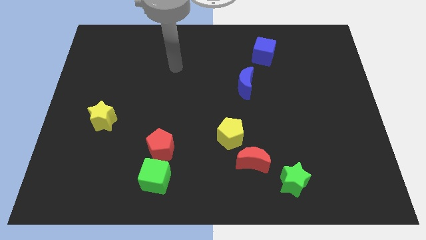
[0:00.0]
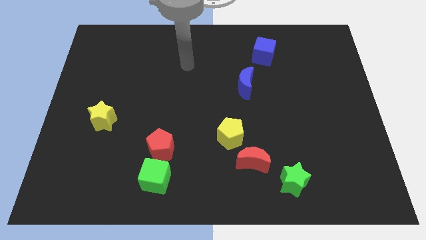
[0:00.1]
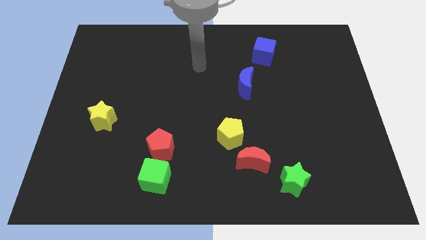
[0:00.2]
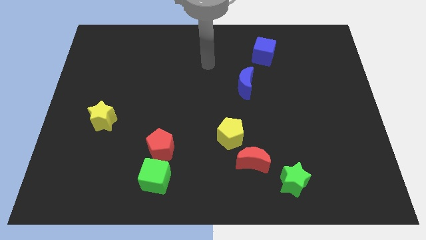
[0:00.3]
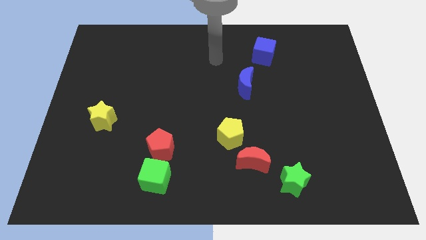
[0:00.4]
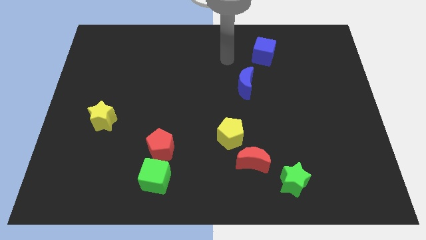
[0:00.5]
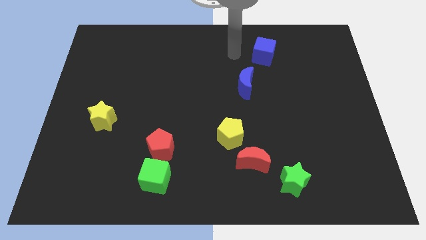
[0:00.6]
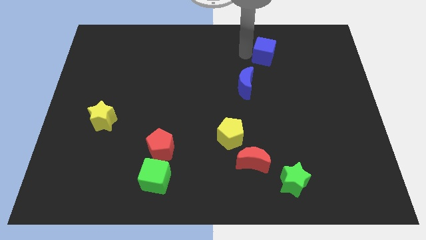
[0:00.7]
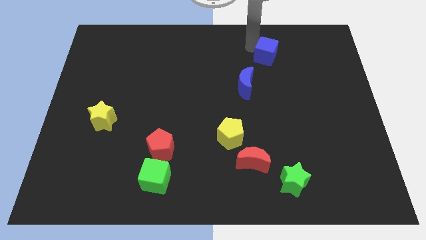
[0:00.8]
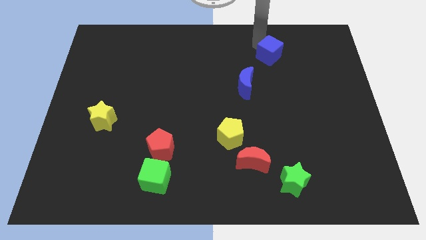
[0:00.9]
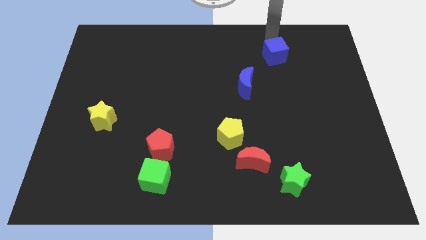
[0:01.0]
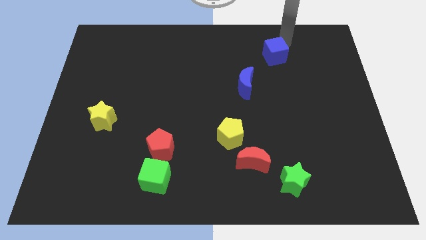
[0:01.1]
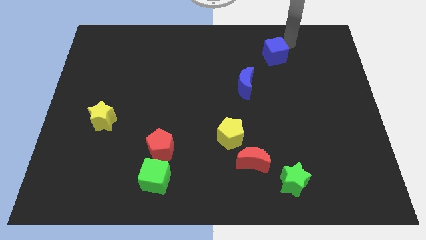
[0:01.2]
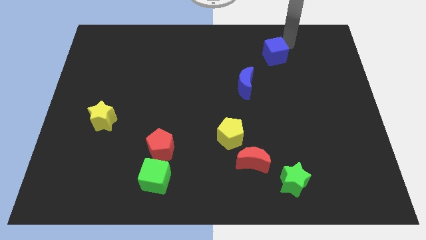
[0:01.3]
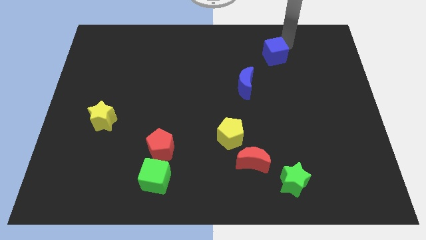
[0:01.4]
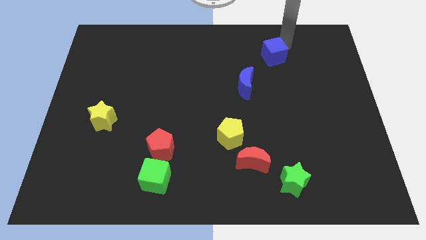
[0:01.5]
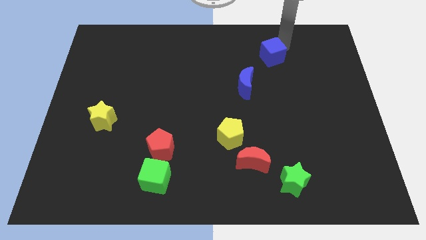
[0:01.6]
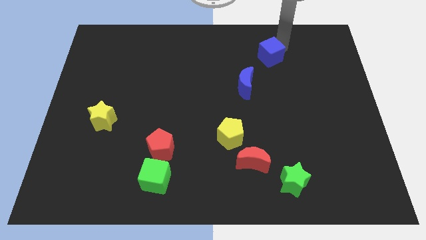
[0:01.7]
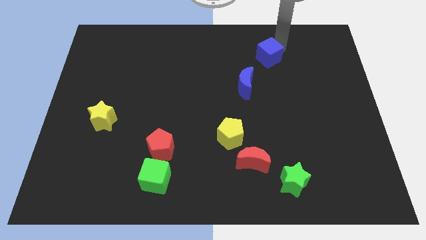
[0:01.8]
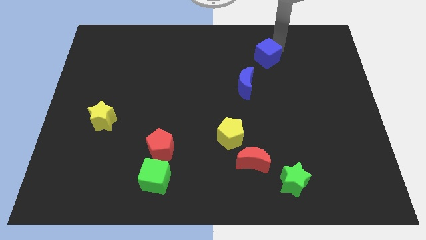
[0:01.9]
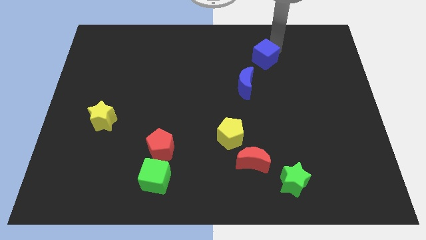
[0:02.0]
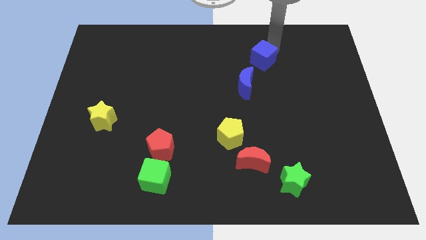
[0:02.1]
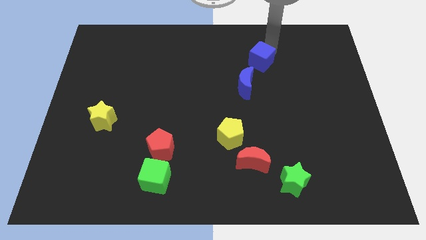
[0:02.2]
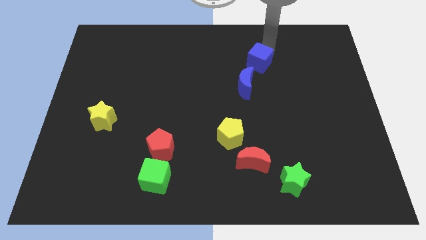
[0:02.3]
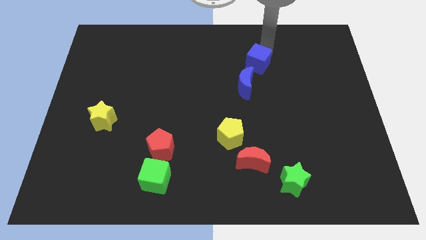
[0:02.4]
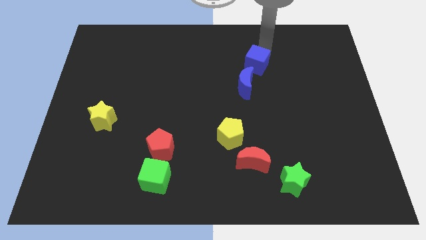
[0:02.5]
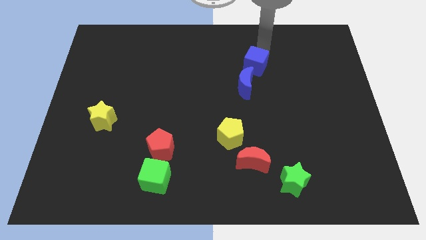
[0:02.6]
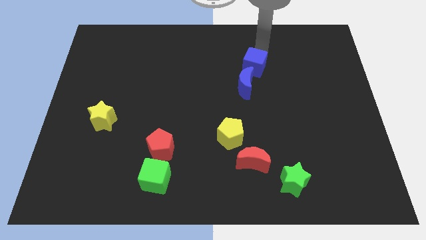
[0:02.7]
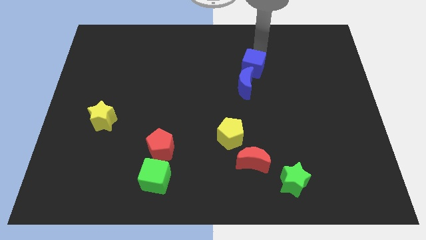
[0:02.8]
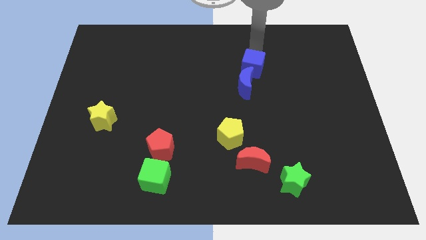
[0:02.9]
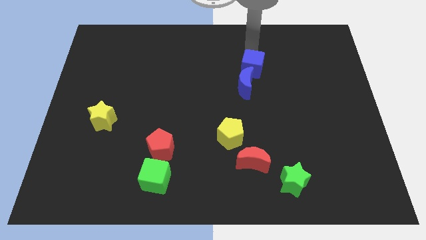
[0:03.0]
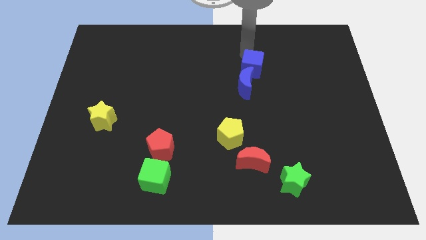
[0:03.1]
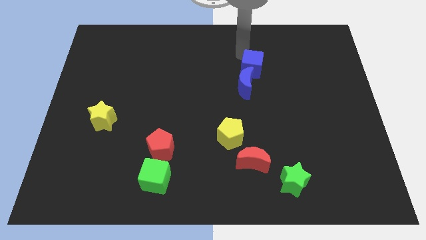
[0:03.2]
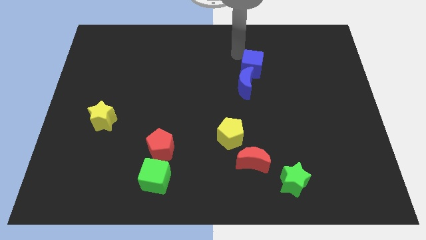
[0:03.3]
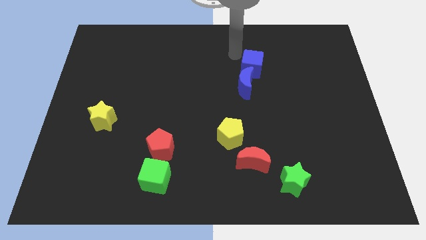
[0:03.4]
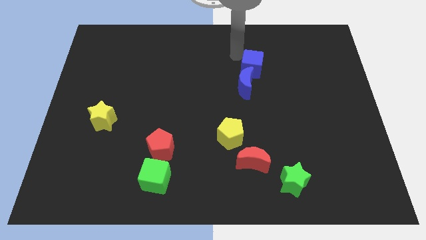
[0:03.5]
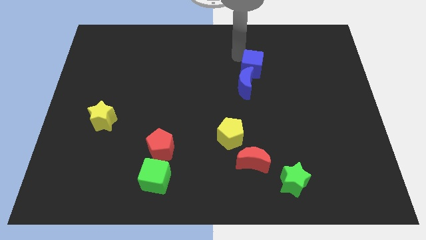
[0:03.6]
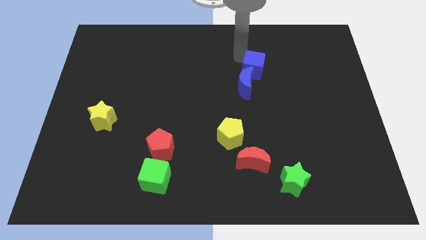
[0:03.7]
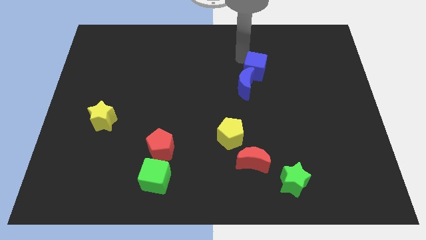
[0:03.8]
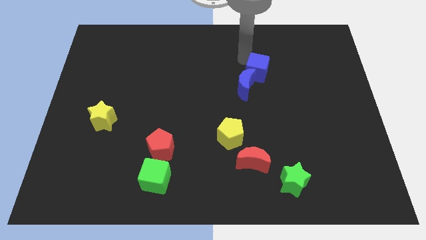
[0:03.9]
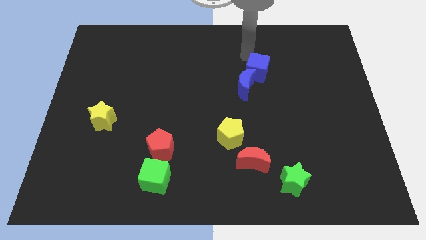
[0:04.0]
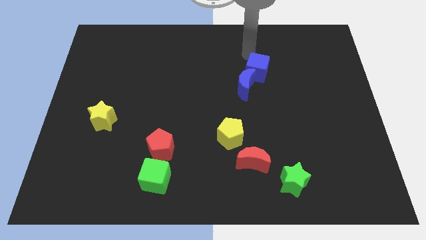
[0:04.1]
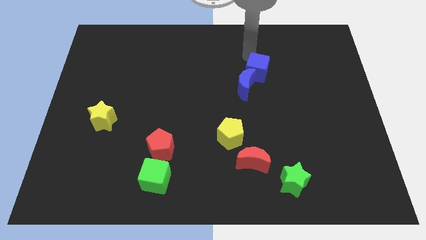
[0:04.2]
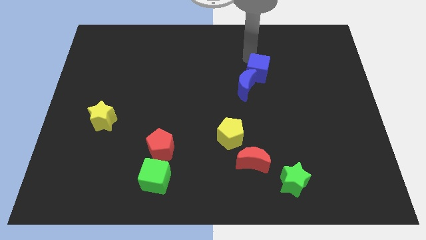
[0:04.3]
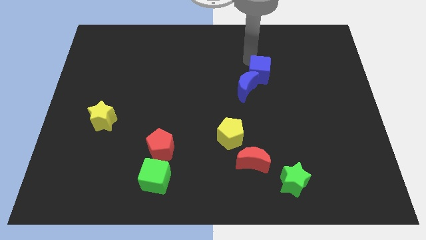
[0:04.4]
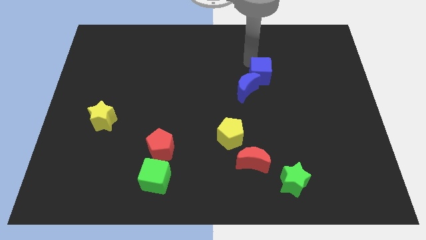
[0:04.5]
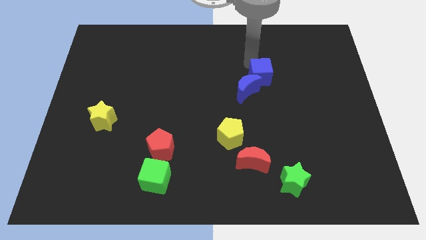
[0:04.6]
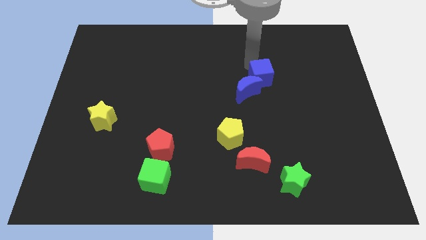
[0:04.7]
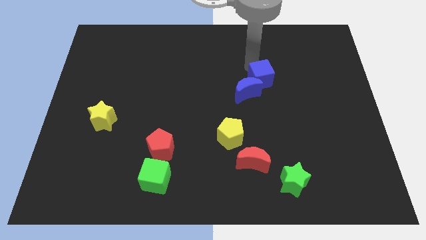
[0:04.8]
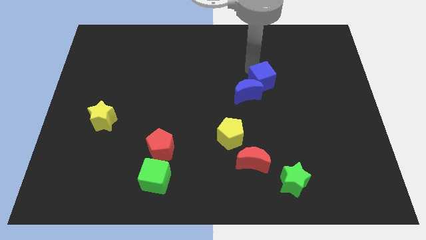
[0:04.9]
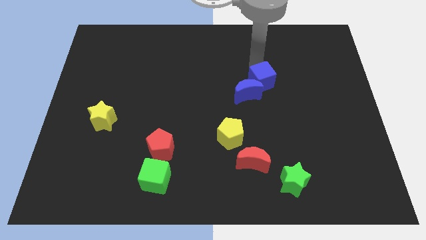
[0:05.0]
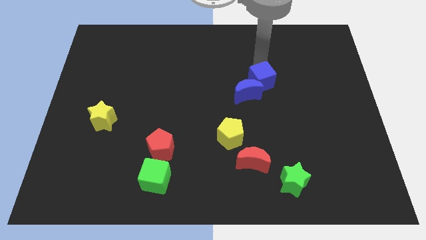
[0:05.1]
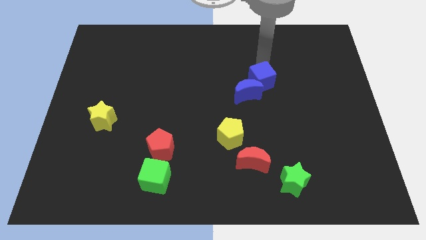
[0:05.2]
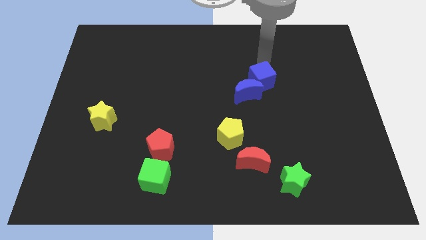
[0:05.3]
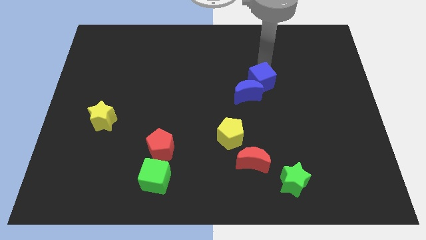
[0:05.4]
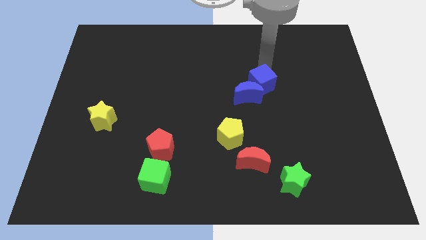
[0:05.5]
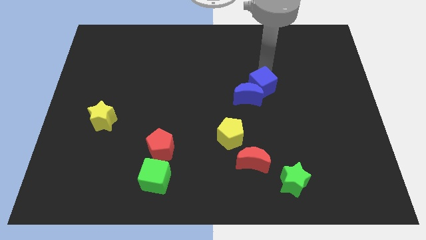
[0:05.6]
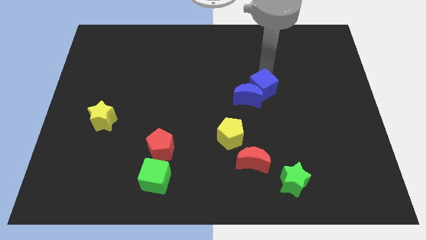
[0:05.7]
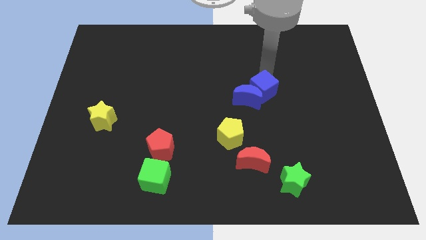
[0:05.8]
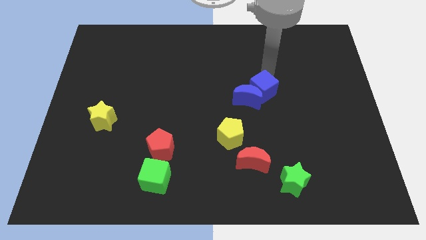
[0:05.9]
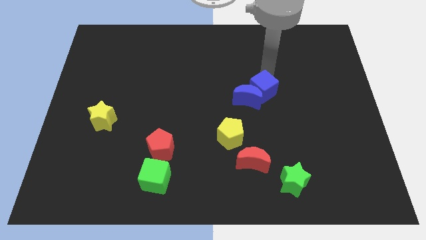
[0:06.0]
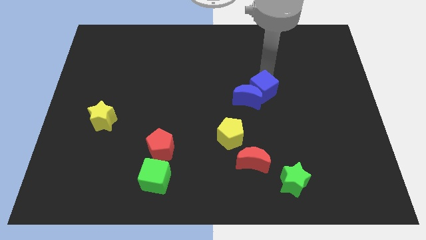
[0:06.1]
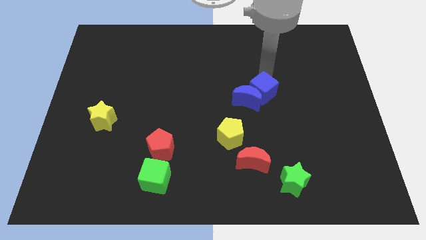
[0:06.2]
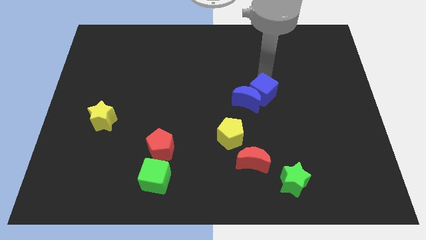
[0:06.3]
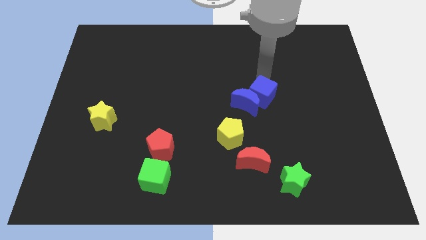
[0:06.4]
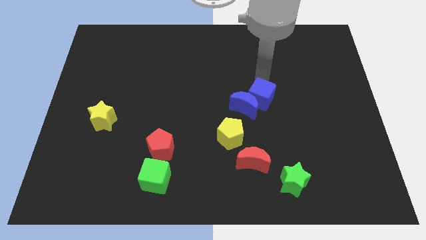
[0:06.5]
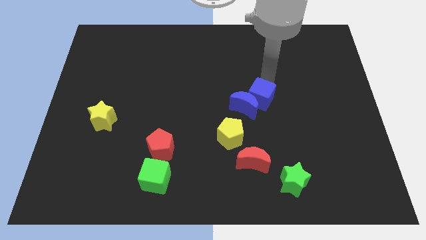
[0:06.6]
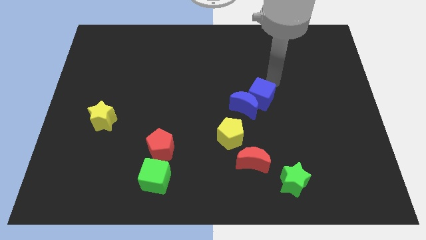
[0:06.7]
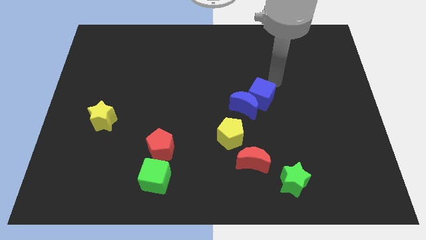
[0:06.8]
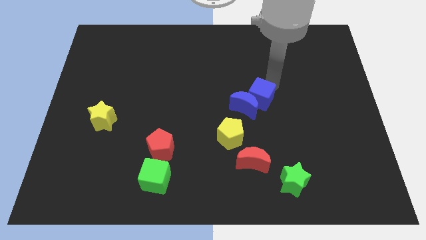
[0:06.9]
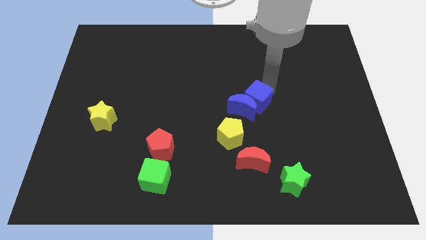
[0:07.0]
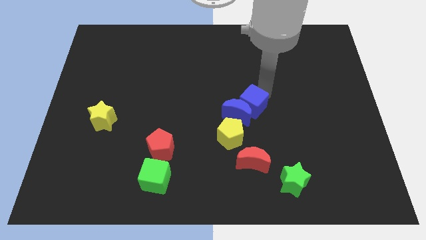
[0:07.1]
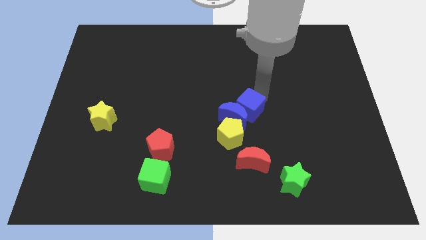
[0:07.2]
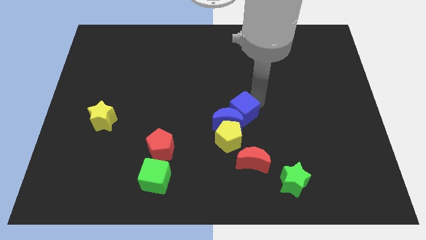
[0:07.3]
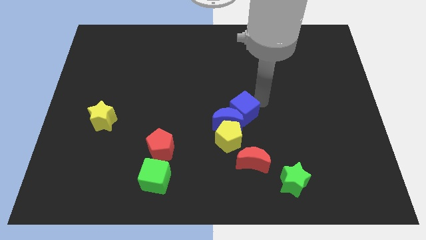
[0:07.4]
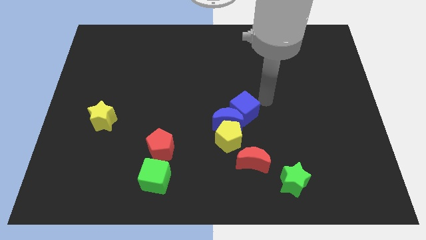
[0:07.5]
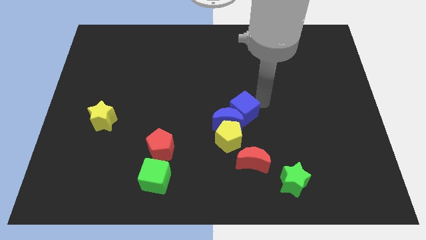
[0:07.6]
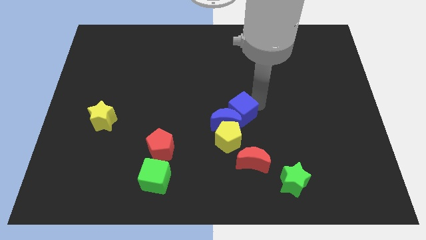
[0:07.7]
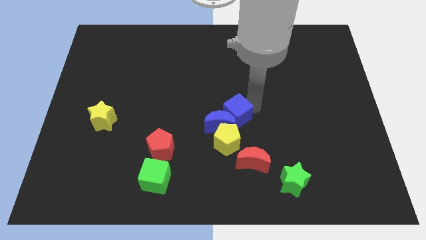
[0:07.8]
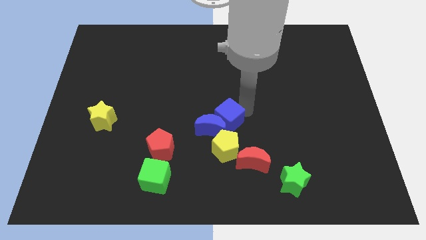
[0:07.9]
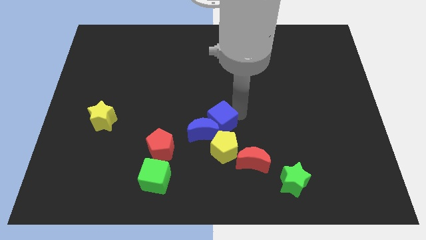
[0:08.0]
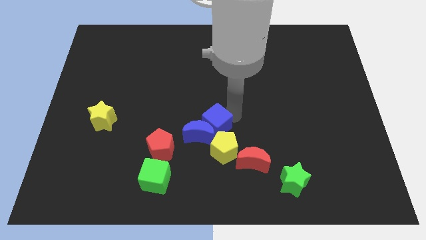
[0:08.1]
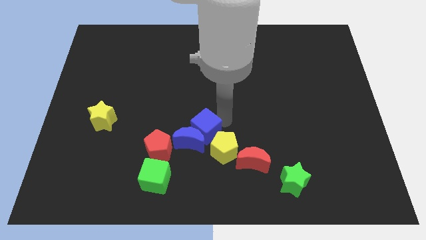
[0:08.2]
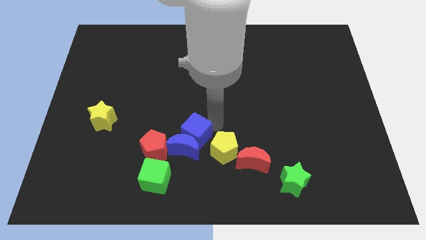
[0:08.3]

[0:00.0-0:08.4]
slide the blue cube just left of the yellow pentagon
